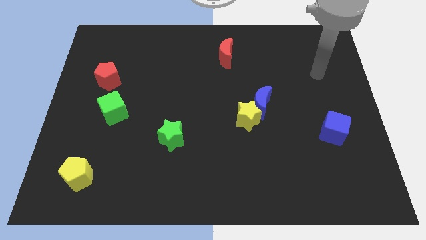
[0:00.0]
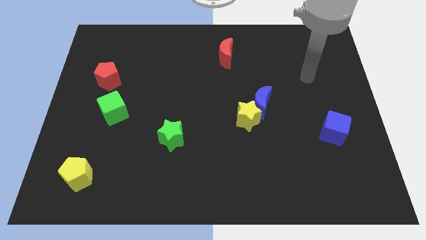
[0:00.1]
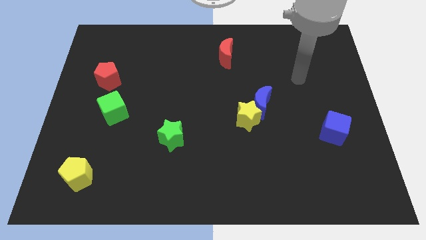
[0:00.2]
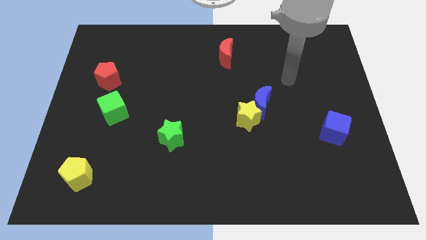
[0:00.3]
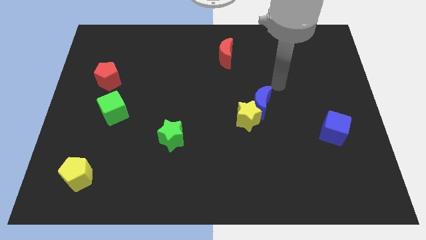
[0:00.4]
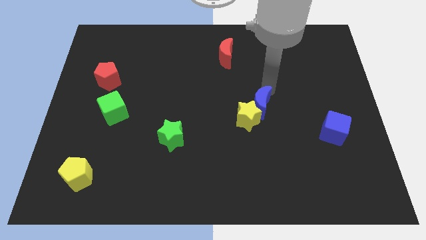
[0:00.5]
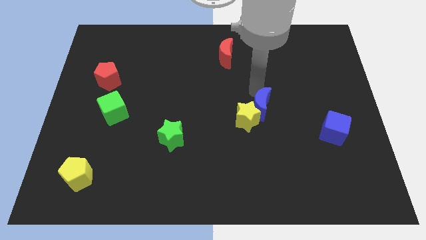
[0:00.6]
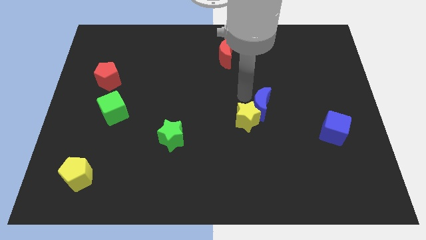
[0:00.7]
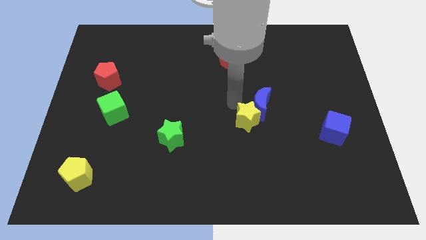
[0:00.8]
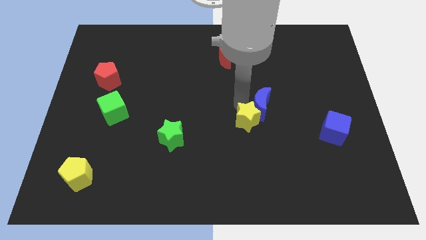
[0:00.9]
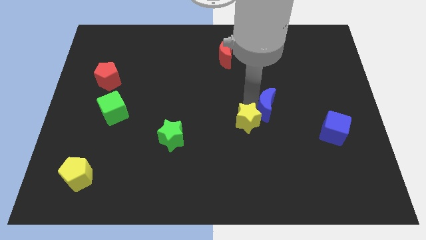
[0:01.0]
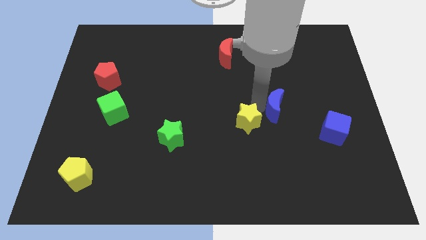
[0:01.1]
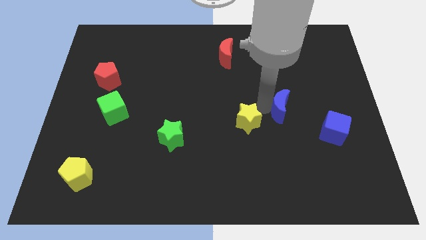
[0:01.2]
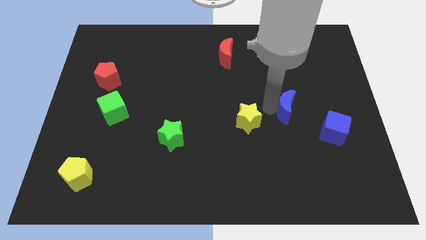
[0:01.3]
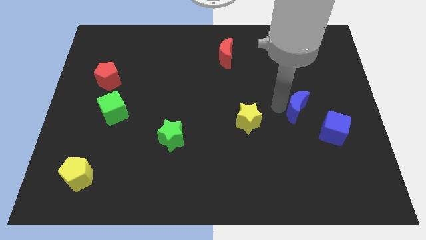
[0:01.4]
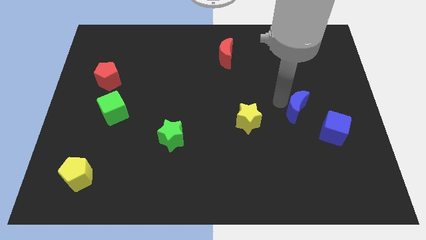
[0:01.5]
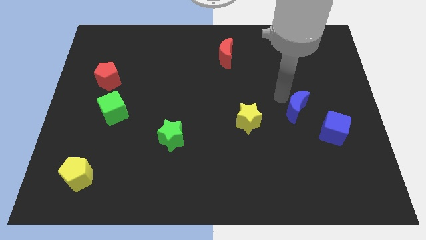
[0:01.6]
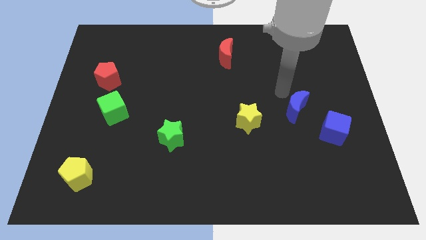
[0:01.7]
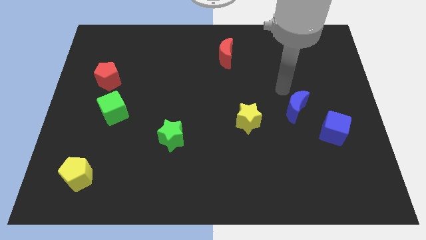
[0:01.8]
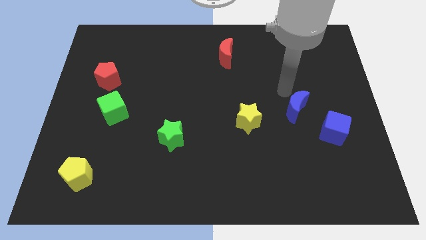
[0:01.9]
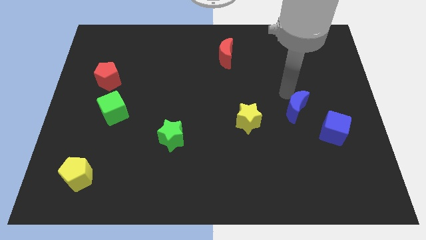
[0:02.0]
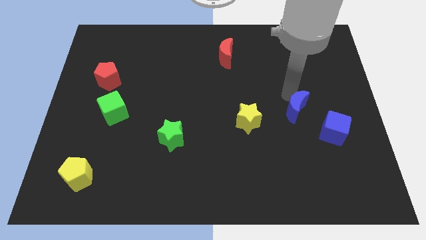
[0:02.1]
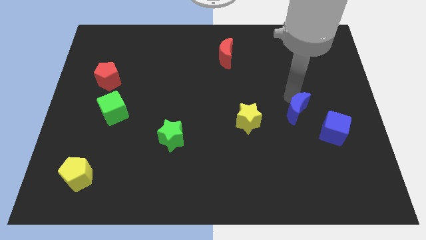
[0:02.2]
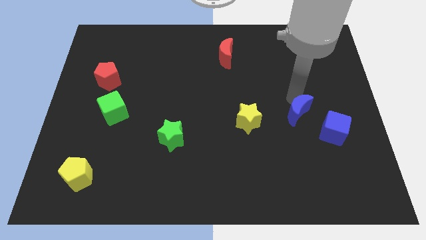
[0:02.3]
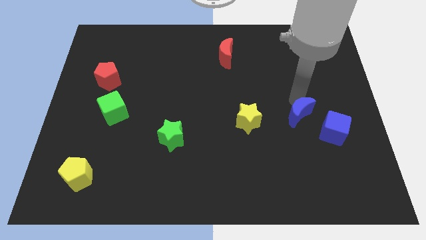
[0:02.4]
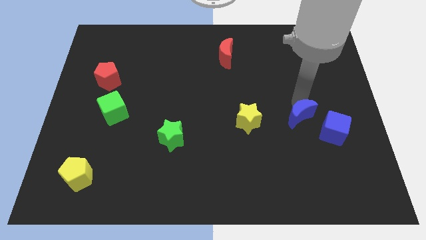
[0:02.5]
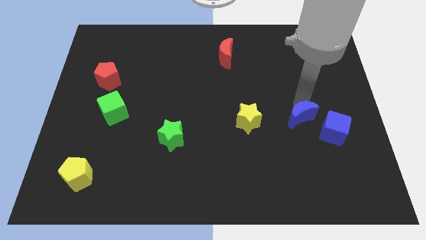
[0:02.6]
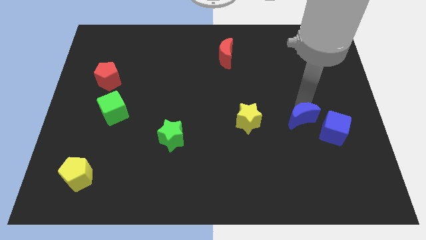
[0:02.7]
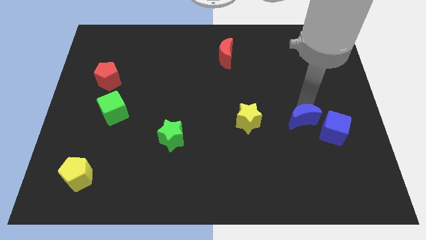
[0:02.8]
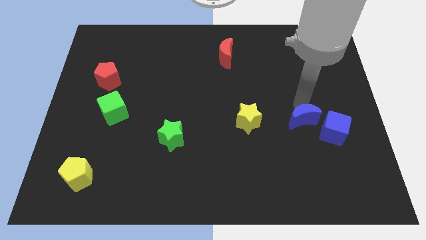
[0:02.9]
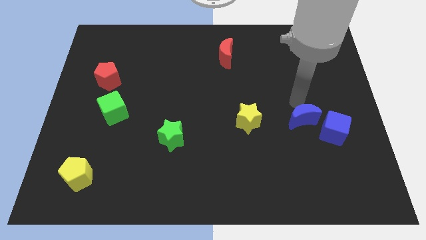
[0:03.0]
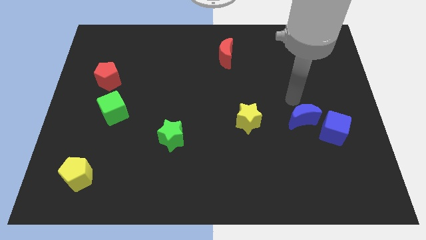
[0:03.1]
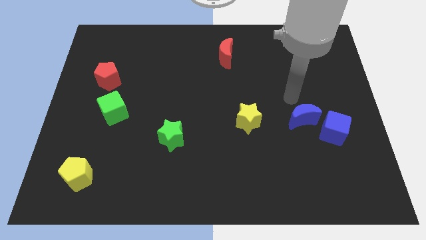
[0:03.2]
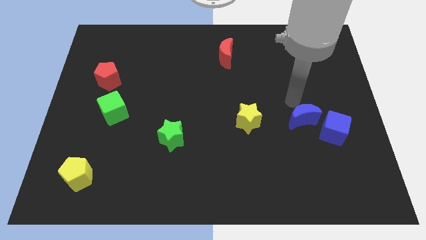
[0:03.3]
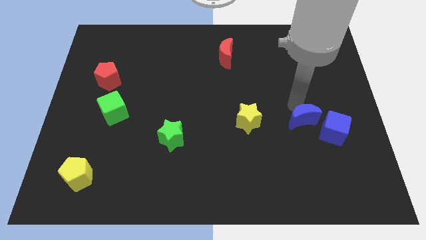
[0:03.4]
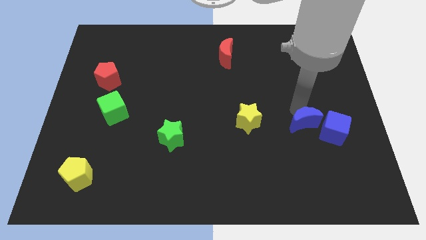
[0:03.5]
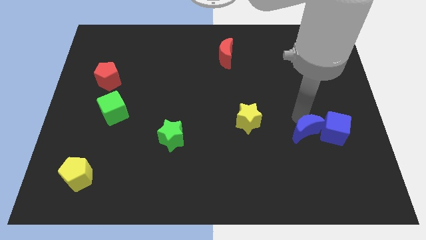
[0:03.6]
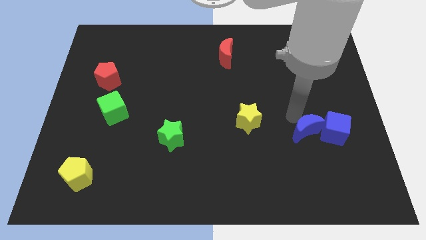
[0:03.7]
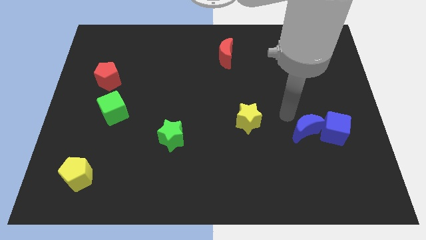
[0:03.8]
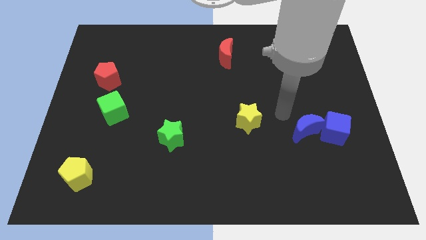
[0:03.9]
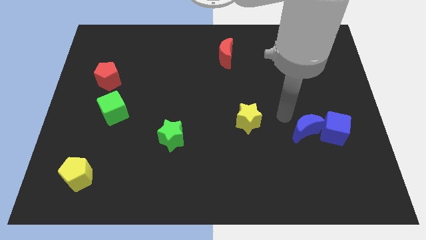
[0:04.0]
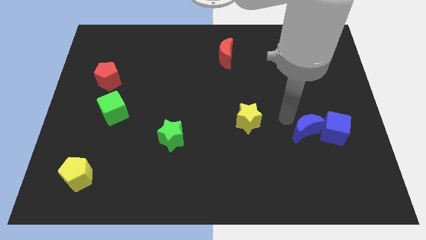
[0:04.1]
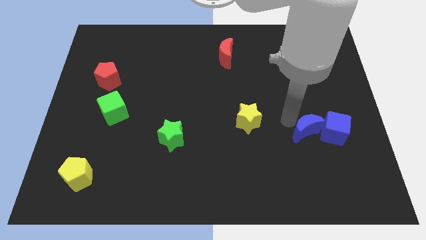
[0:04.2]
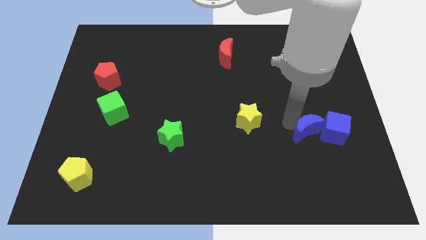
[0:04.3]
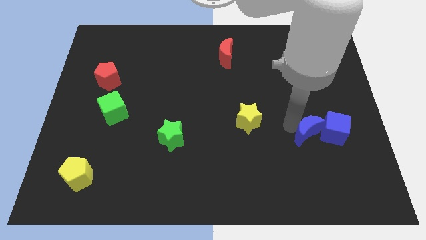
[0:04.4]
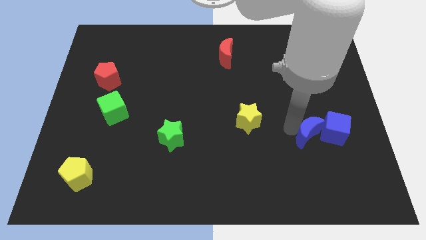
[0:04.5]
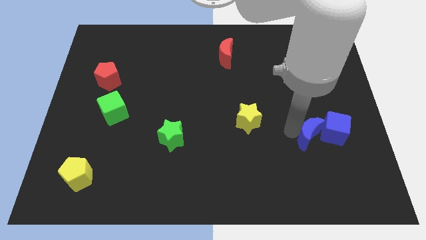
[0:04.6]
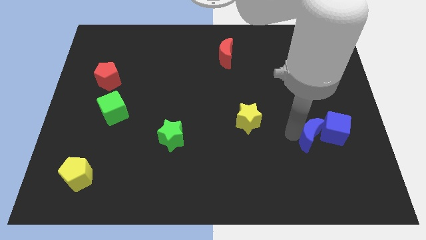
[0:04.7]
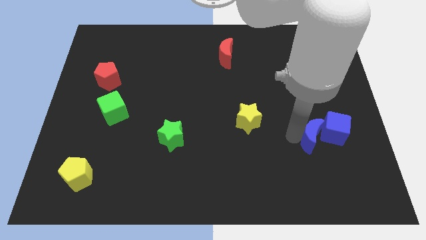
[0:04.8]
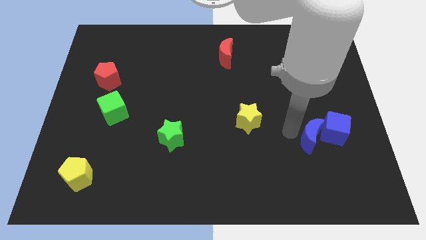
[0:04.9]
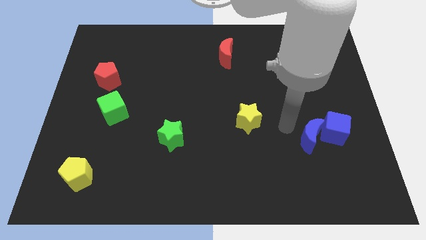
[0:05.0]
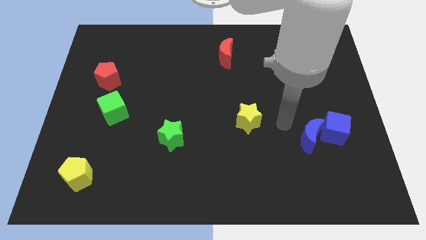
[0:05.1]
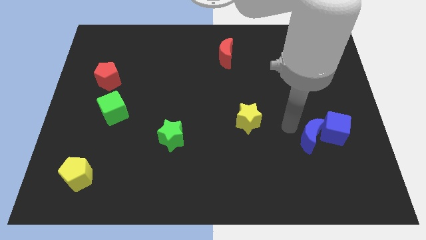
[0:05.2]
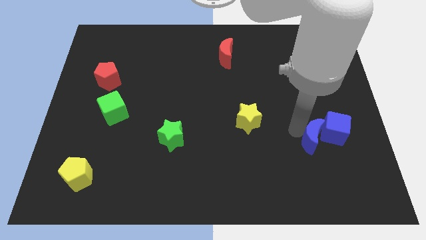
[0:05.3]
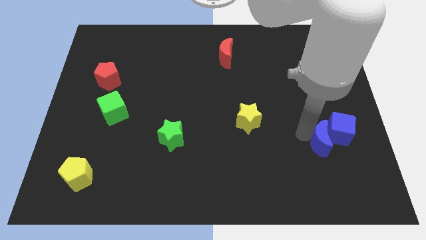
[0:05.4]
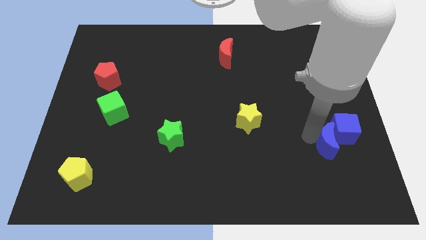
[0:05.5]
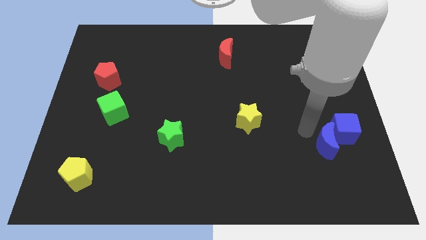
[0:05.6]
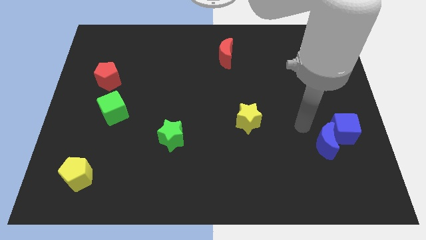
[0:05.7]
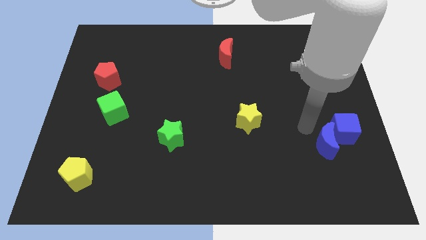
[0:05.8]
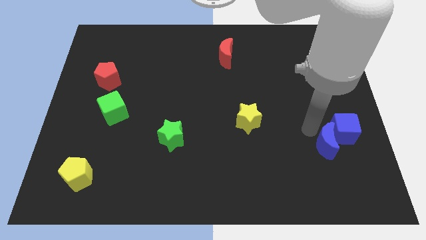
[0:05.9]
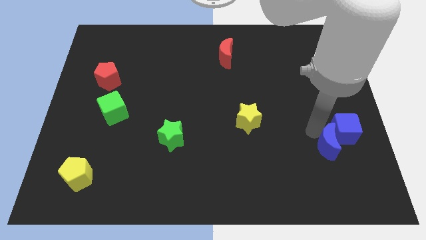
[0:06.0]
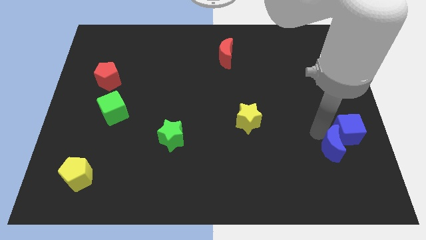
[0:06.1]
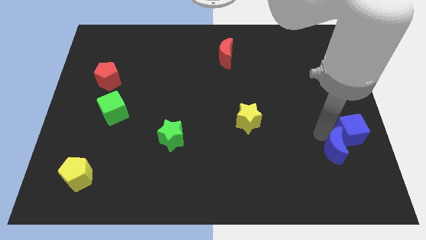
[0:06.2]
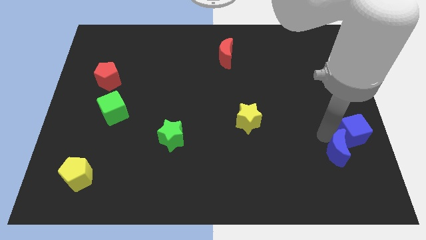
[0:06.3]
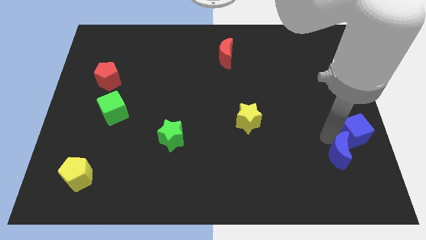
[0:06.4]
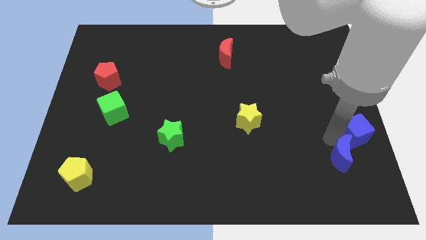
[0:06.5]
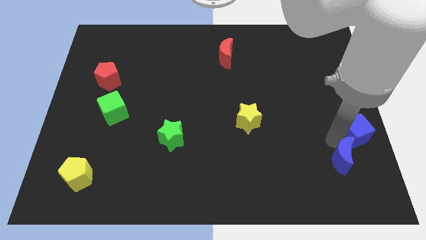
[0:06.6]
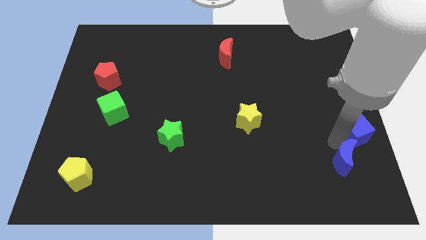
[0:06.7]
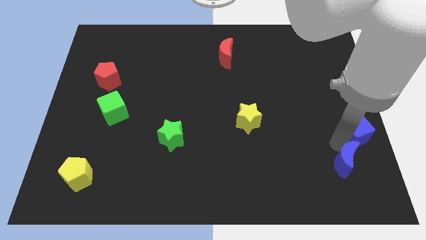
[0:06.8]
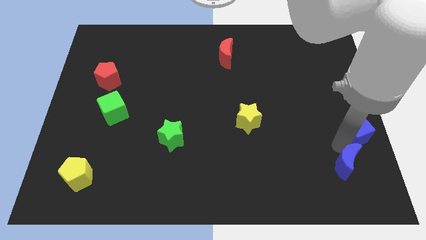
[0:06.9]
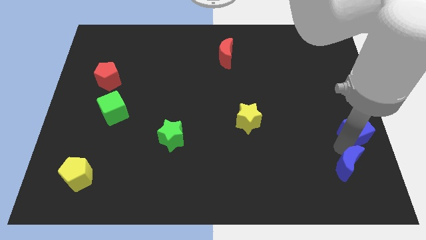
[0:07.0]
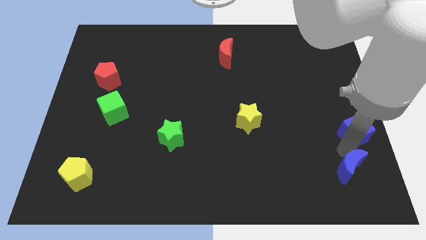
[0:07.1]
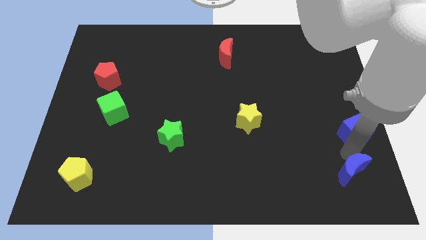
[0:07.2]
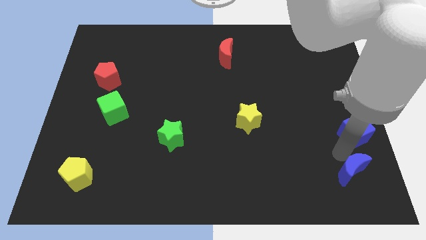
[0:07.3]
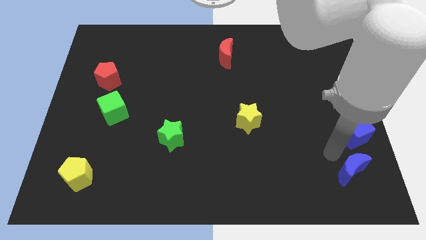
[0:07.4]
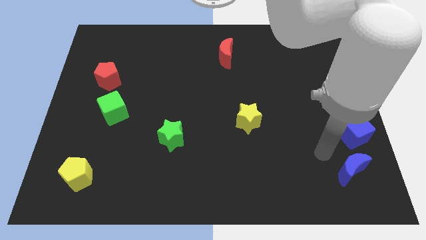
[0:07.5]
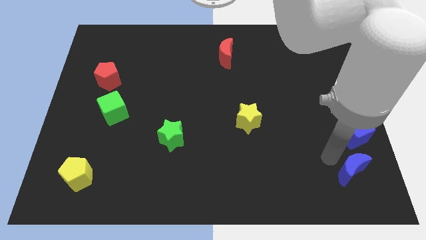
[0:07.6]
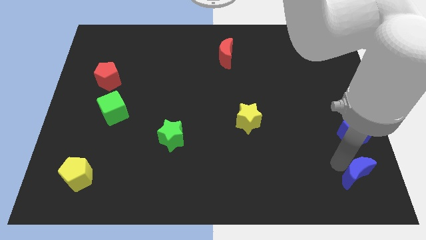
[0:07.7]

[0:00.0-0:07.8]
slide the blue moon to the bottom right corner
